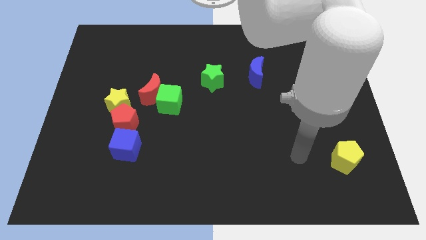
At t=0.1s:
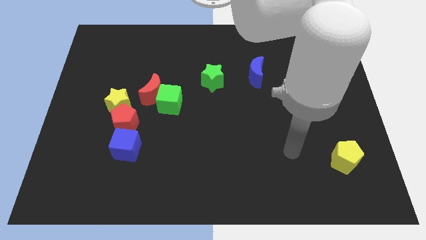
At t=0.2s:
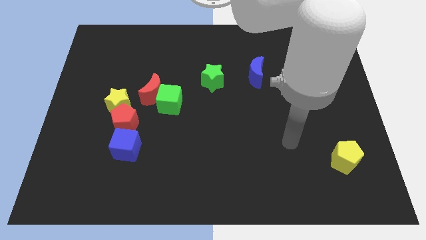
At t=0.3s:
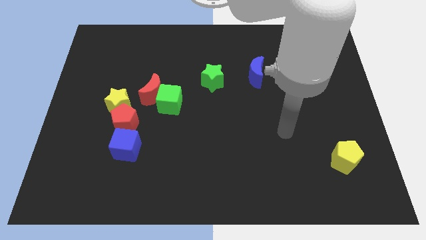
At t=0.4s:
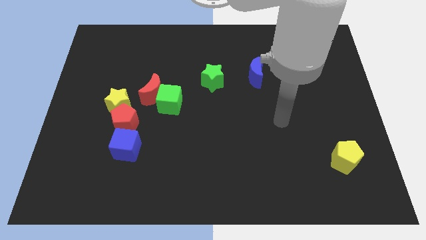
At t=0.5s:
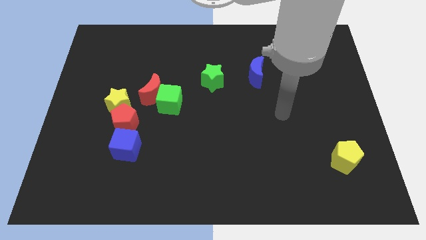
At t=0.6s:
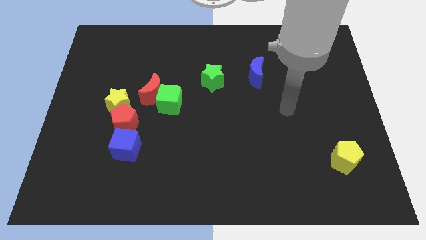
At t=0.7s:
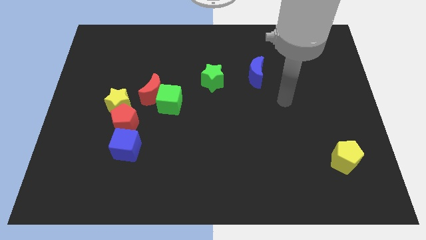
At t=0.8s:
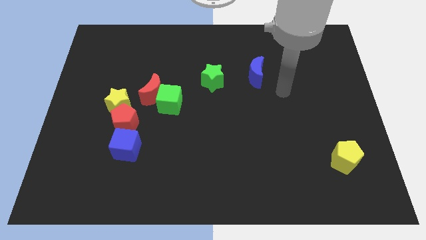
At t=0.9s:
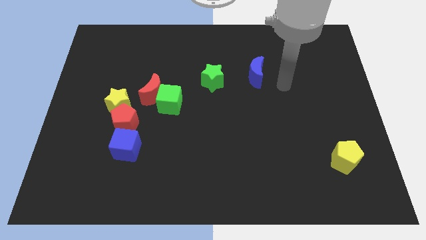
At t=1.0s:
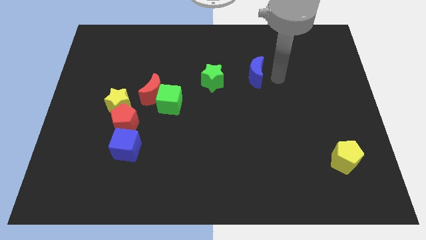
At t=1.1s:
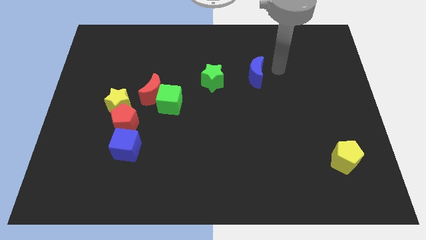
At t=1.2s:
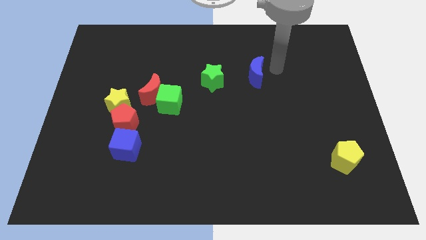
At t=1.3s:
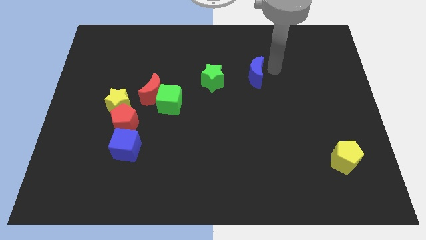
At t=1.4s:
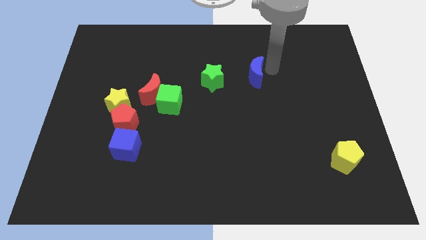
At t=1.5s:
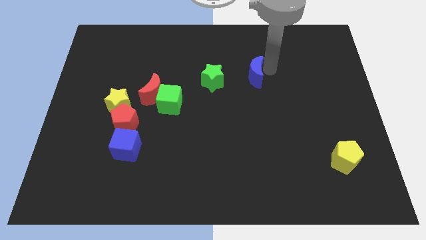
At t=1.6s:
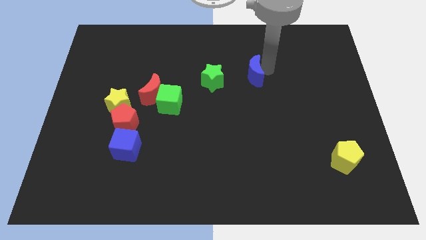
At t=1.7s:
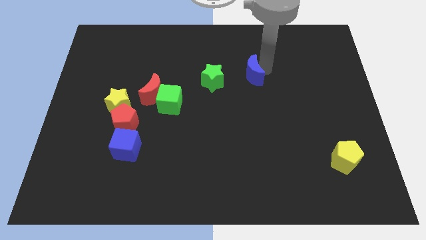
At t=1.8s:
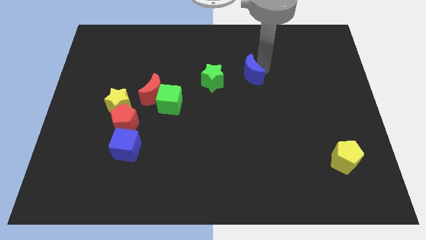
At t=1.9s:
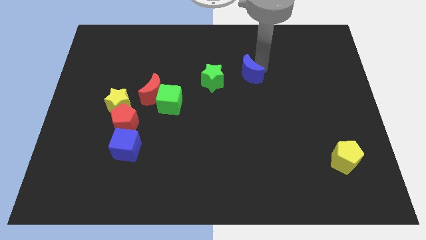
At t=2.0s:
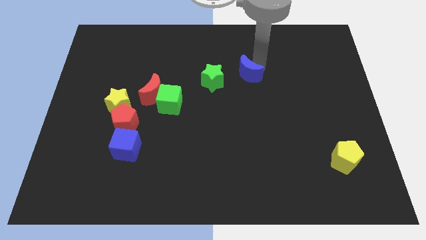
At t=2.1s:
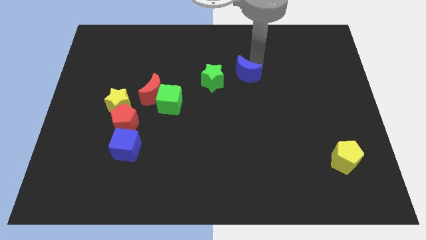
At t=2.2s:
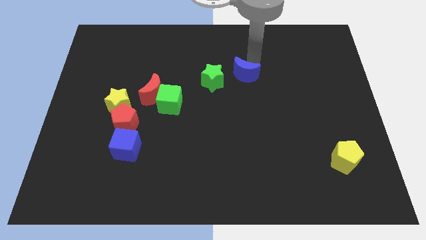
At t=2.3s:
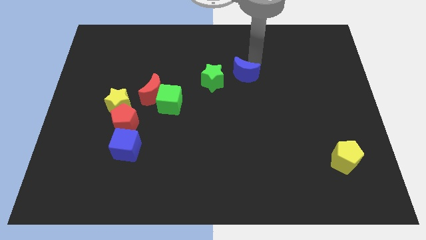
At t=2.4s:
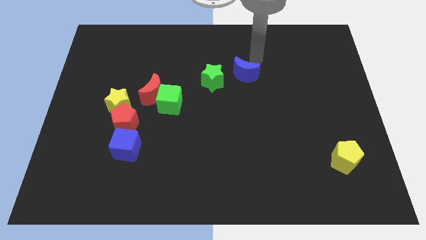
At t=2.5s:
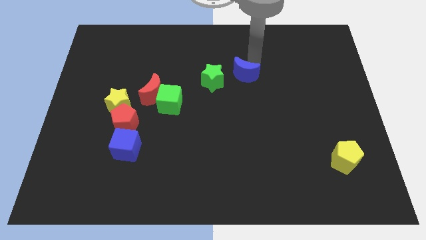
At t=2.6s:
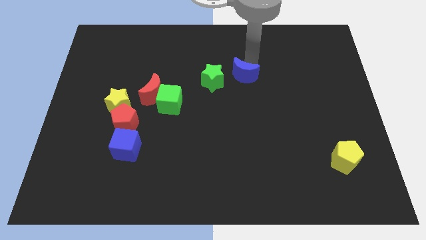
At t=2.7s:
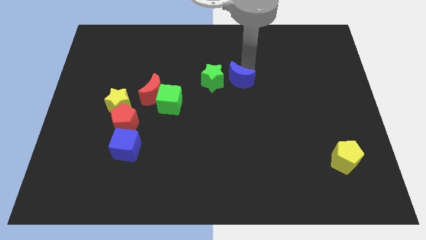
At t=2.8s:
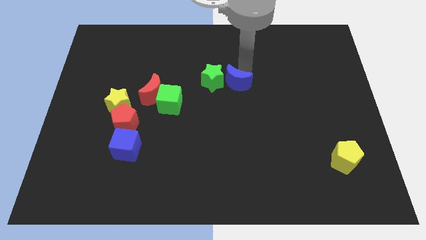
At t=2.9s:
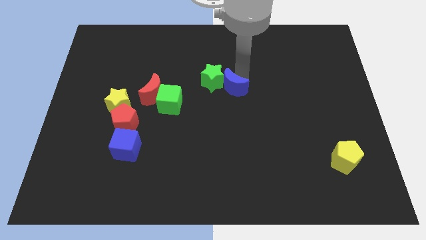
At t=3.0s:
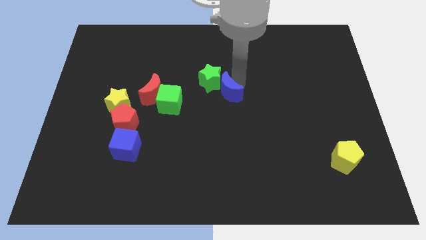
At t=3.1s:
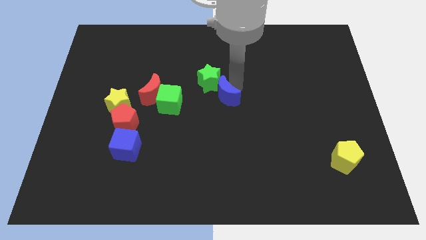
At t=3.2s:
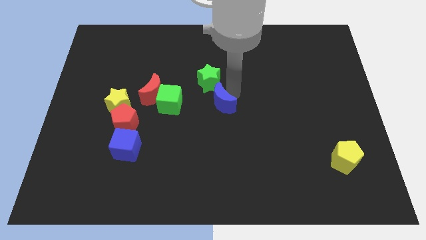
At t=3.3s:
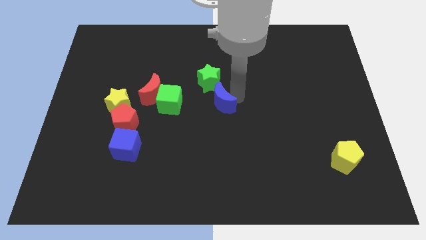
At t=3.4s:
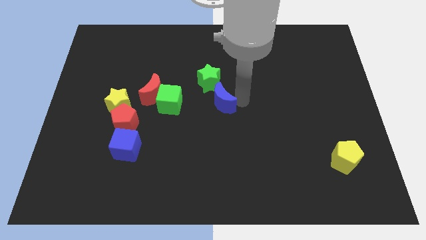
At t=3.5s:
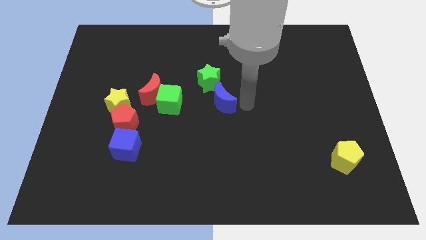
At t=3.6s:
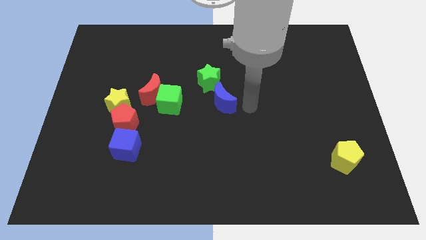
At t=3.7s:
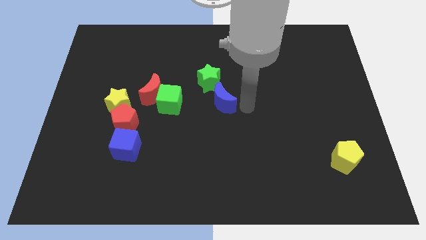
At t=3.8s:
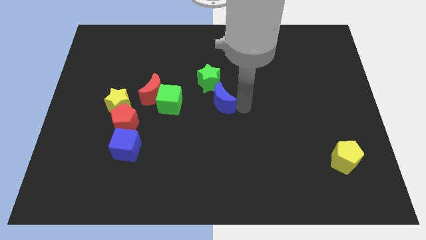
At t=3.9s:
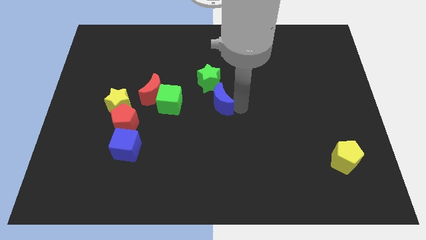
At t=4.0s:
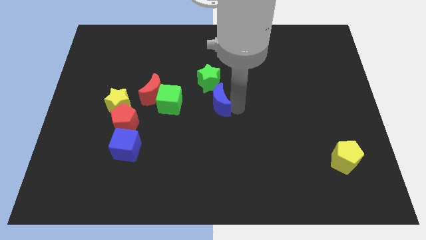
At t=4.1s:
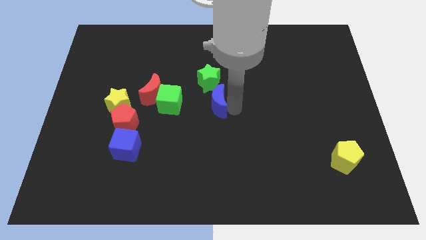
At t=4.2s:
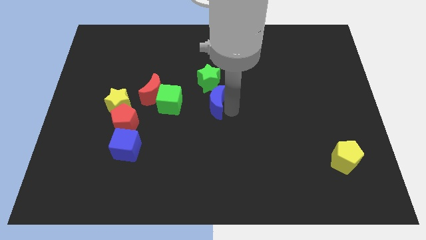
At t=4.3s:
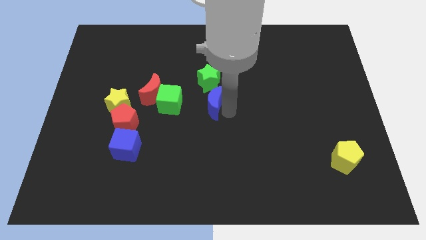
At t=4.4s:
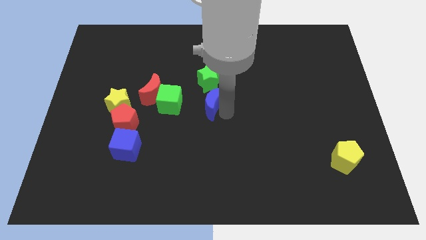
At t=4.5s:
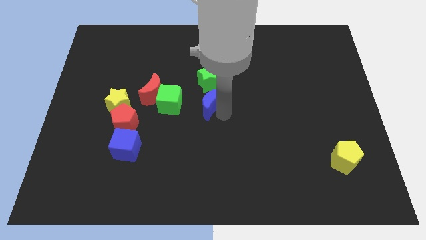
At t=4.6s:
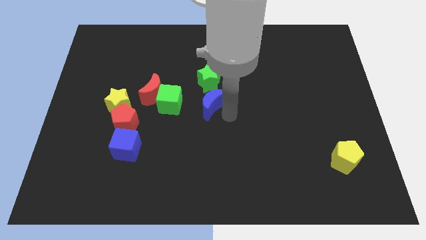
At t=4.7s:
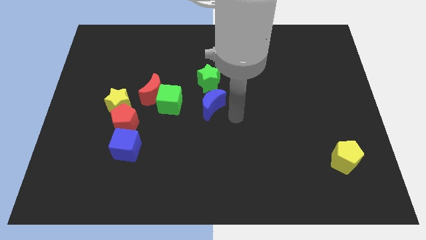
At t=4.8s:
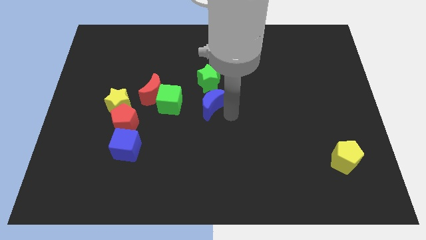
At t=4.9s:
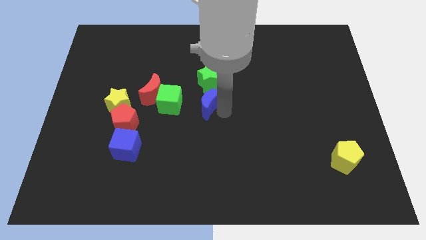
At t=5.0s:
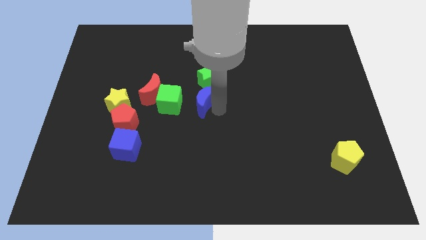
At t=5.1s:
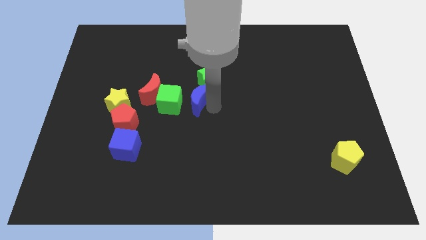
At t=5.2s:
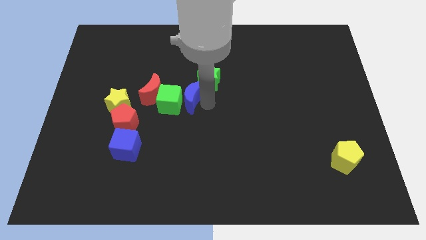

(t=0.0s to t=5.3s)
slide the blue moon to the green cube

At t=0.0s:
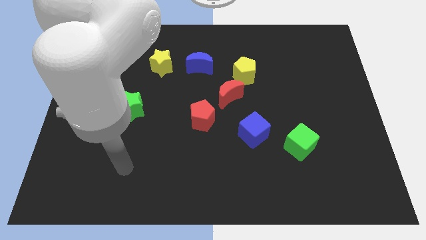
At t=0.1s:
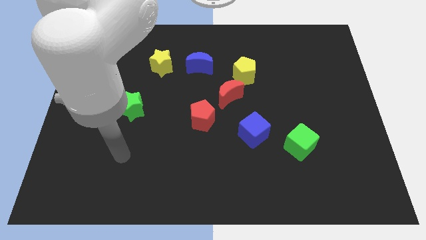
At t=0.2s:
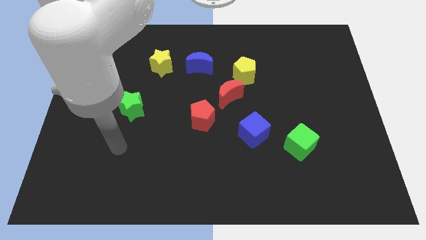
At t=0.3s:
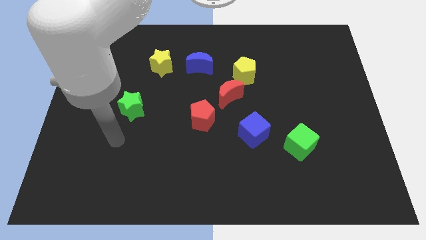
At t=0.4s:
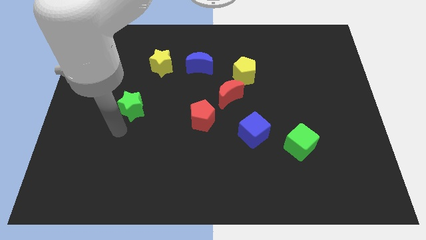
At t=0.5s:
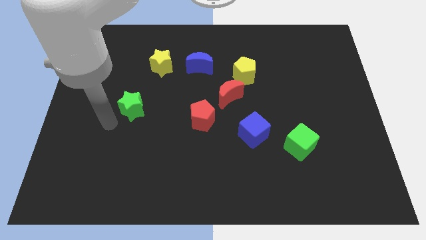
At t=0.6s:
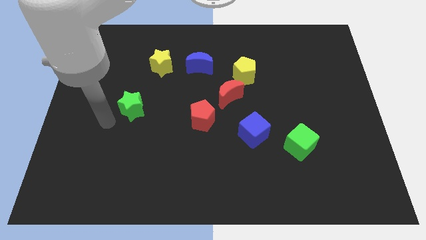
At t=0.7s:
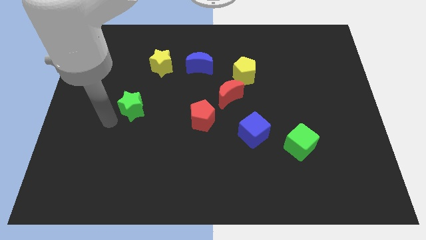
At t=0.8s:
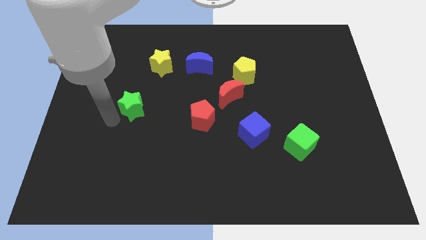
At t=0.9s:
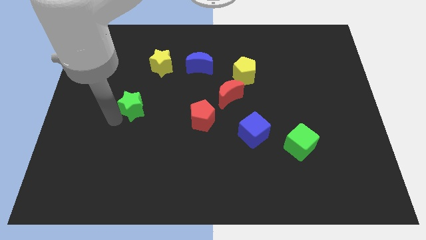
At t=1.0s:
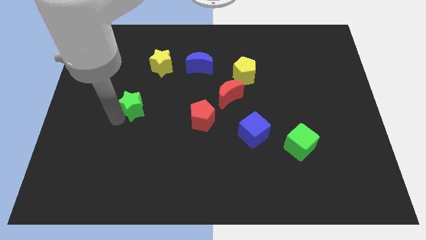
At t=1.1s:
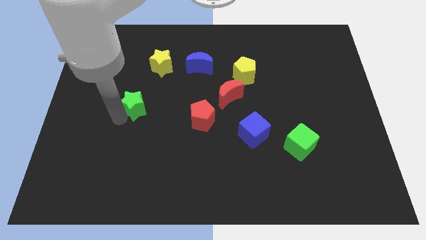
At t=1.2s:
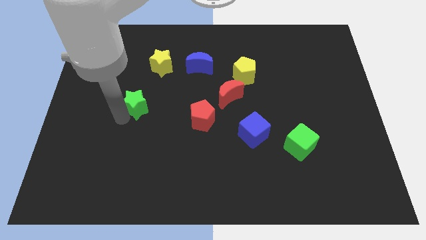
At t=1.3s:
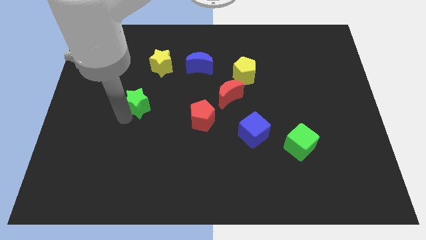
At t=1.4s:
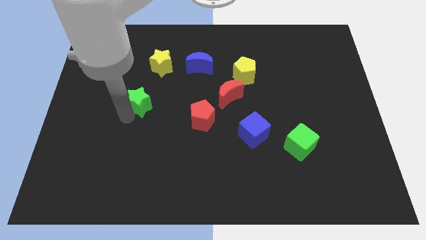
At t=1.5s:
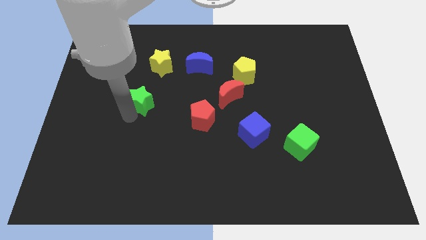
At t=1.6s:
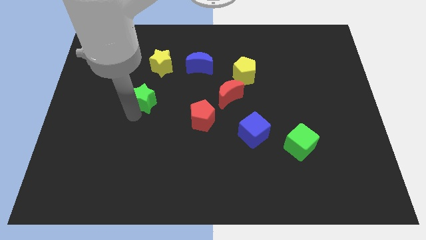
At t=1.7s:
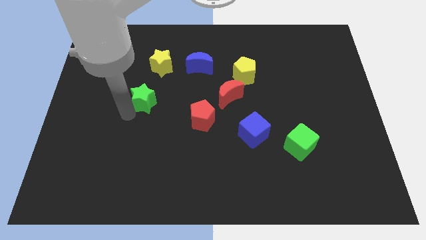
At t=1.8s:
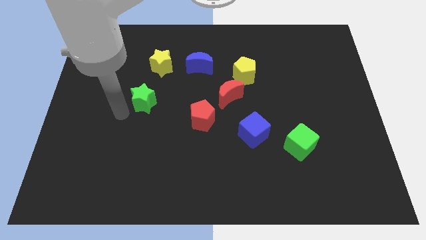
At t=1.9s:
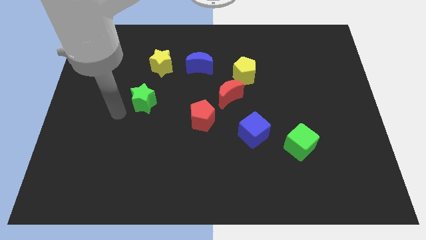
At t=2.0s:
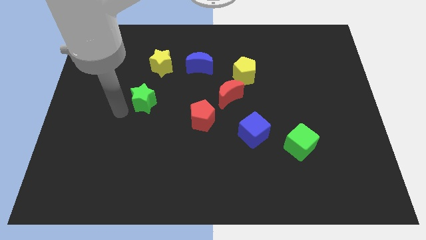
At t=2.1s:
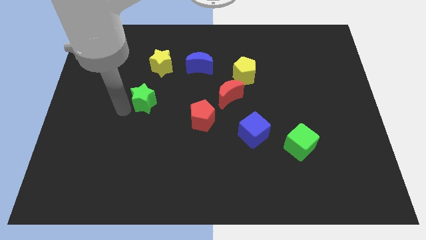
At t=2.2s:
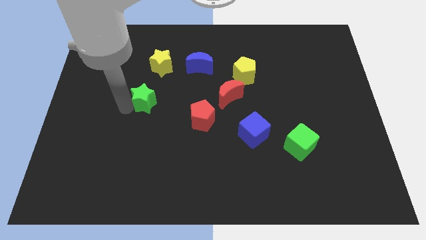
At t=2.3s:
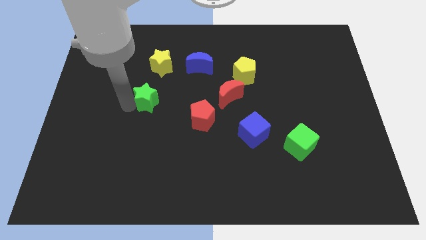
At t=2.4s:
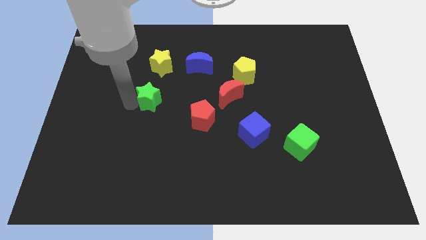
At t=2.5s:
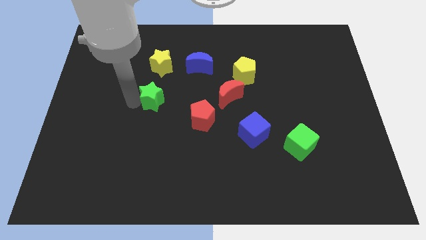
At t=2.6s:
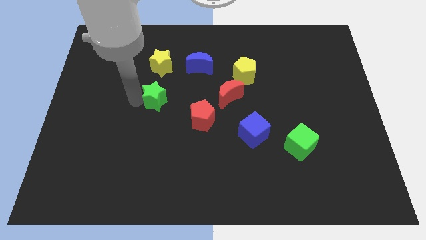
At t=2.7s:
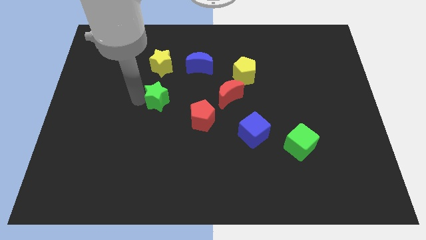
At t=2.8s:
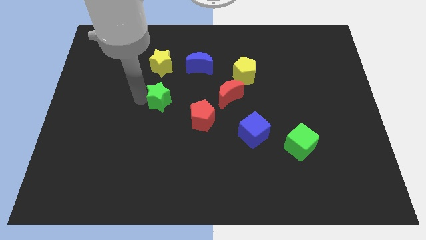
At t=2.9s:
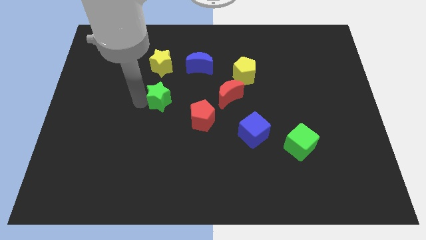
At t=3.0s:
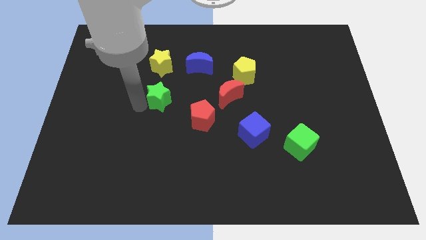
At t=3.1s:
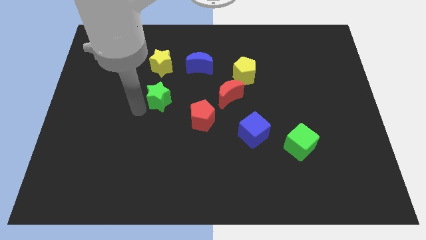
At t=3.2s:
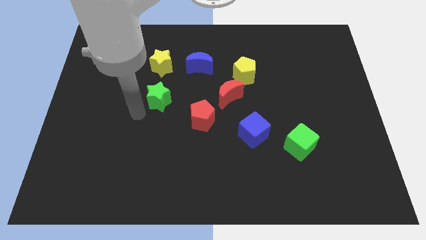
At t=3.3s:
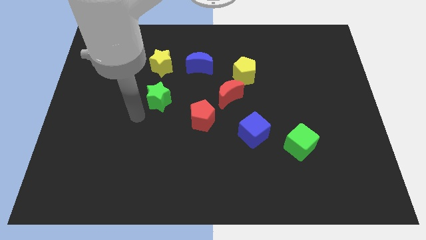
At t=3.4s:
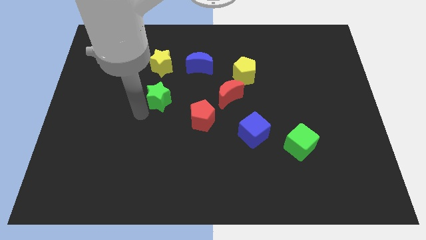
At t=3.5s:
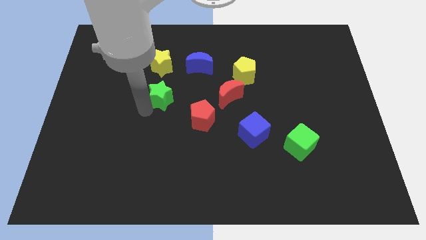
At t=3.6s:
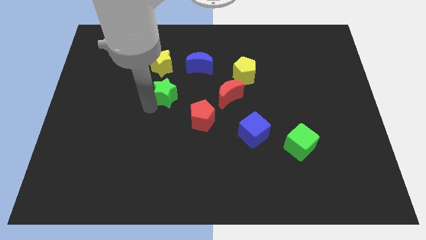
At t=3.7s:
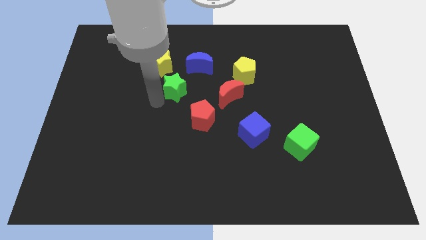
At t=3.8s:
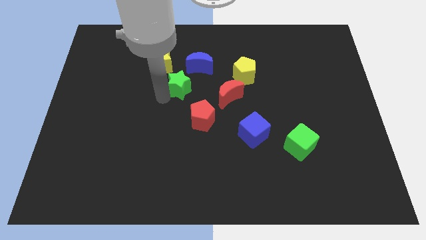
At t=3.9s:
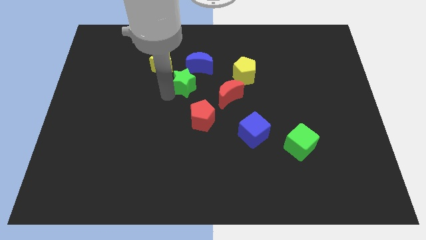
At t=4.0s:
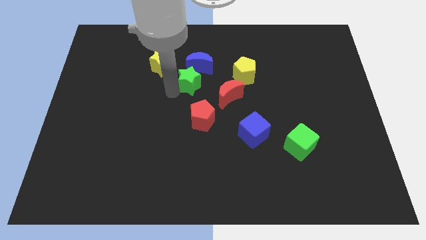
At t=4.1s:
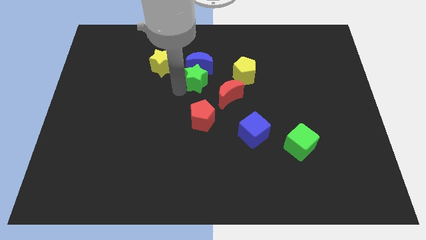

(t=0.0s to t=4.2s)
put the green star close to the blue moon
